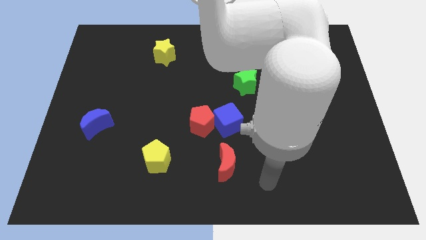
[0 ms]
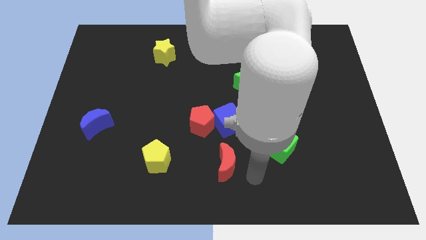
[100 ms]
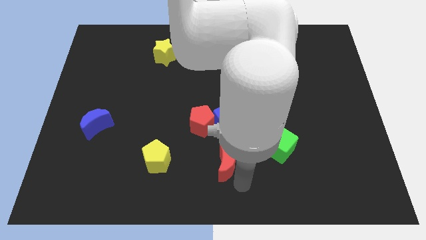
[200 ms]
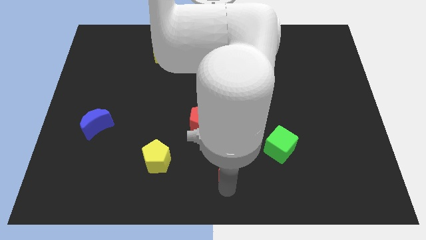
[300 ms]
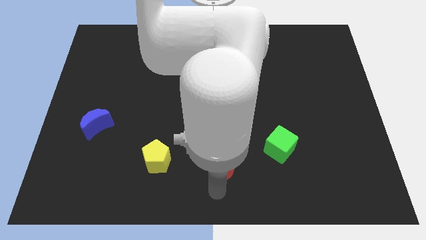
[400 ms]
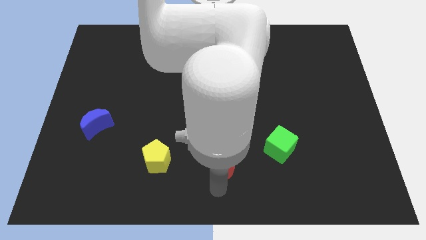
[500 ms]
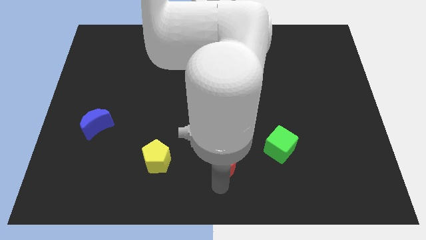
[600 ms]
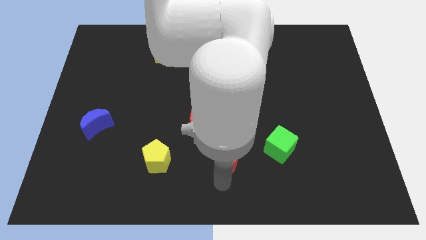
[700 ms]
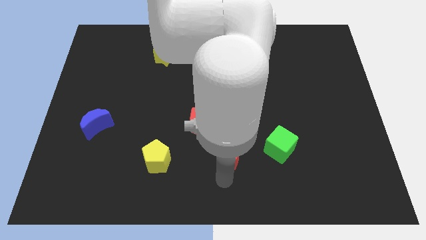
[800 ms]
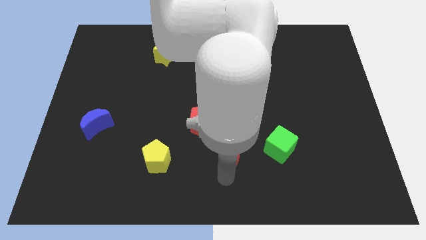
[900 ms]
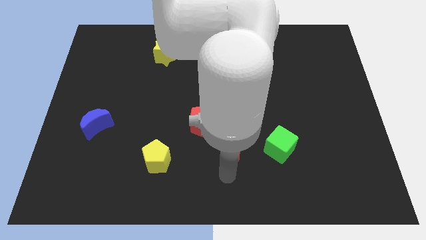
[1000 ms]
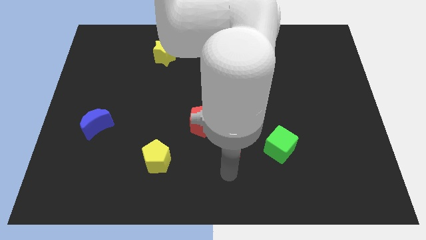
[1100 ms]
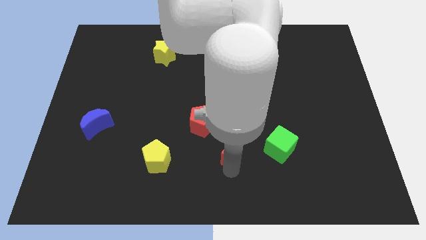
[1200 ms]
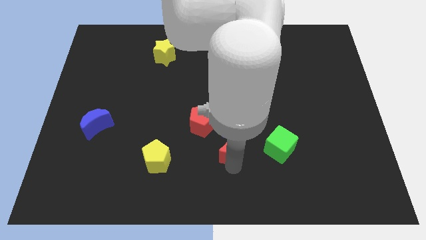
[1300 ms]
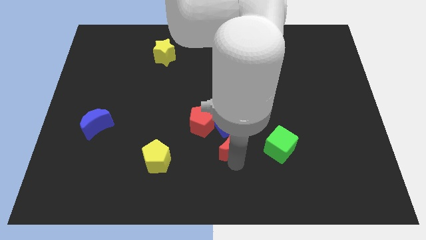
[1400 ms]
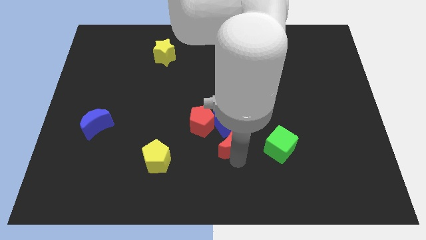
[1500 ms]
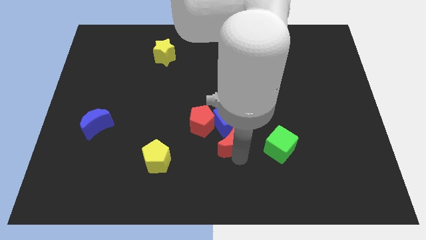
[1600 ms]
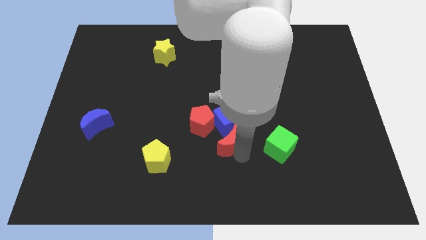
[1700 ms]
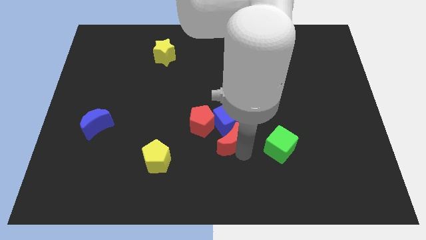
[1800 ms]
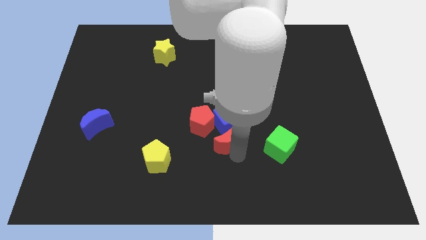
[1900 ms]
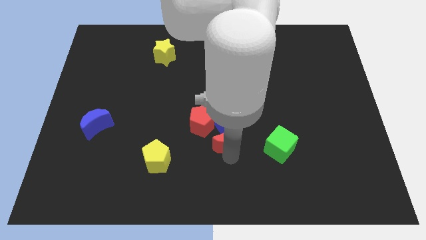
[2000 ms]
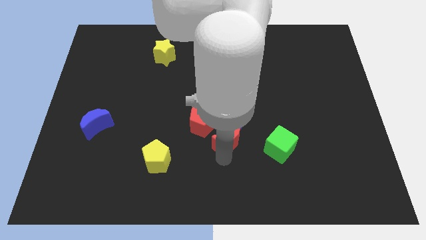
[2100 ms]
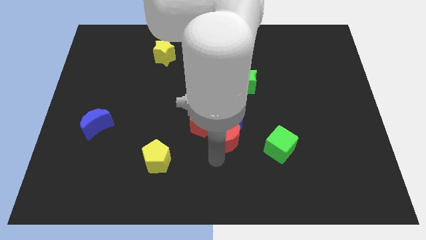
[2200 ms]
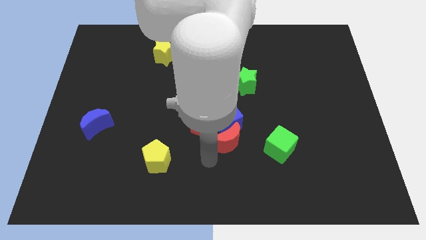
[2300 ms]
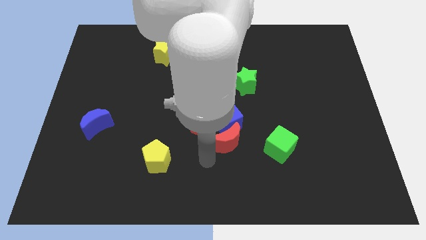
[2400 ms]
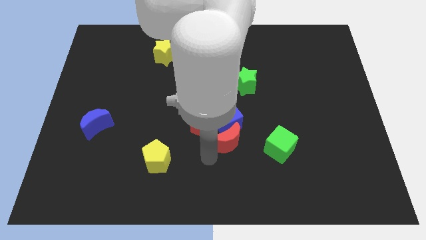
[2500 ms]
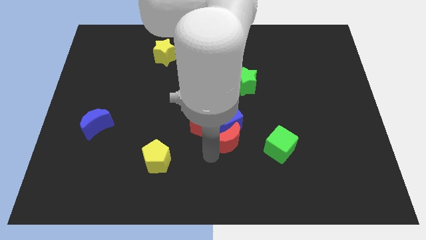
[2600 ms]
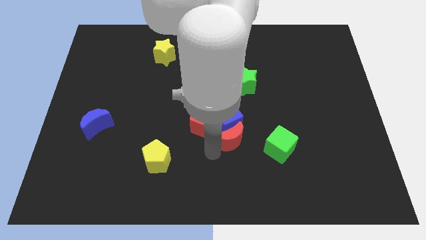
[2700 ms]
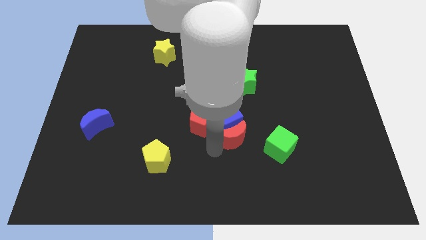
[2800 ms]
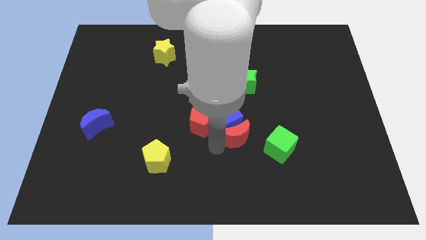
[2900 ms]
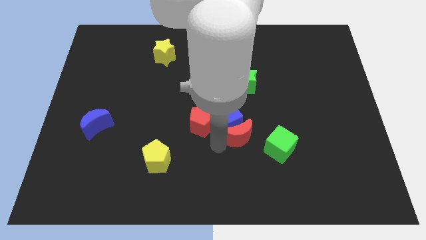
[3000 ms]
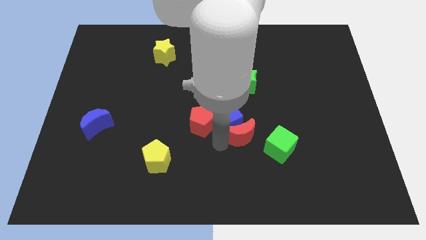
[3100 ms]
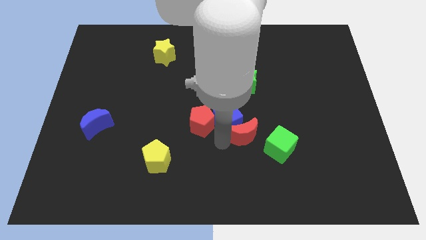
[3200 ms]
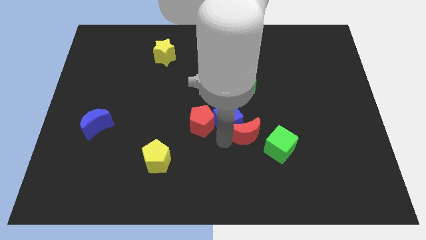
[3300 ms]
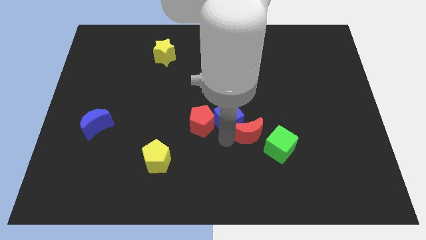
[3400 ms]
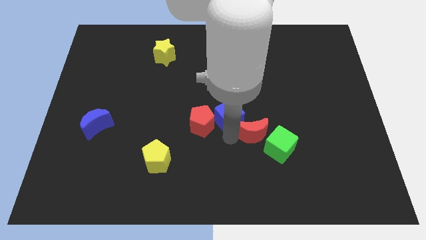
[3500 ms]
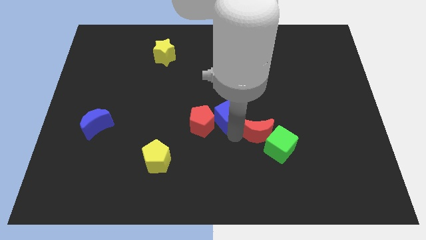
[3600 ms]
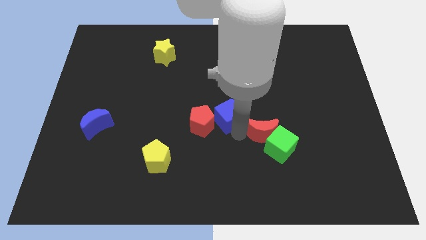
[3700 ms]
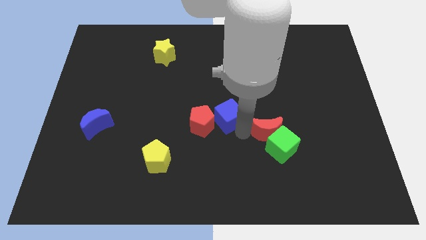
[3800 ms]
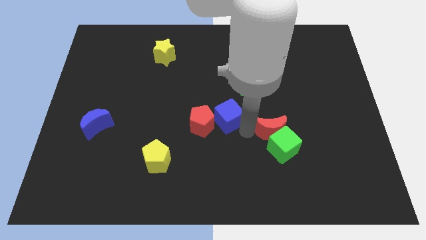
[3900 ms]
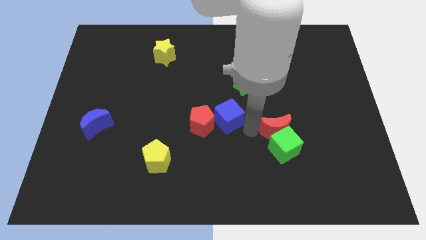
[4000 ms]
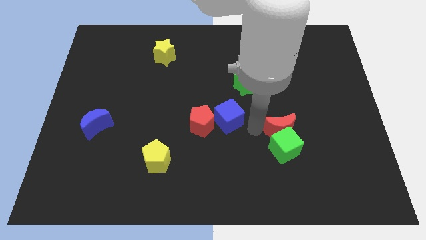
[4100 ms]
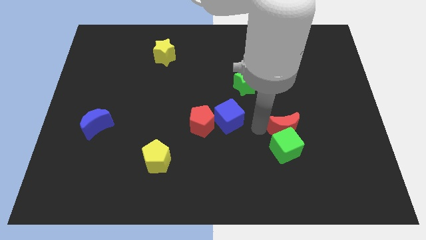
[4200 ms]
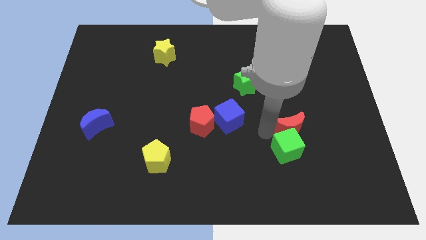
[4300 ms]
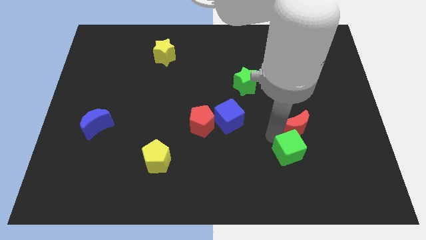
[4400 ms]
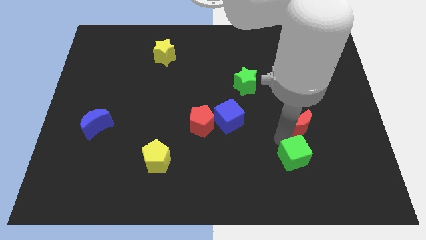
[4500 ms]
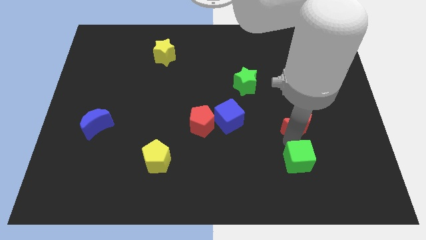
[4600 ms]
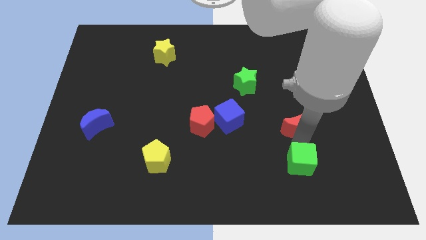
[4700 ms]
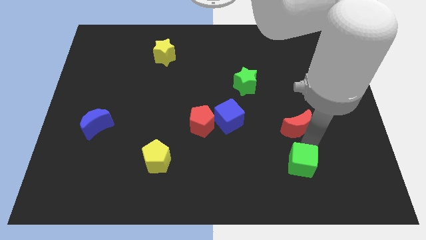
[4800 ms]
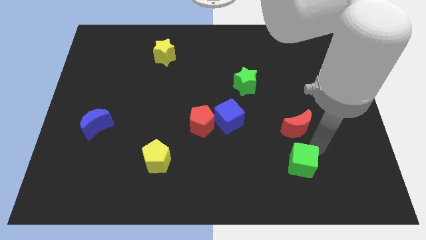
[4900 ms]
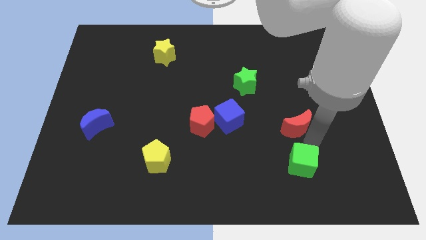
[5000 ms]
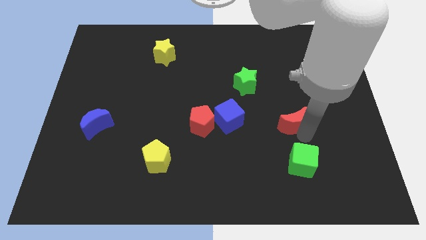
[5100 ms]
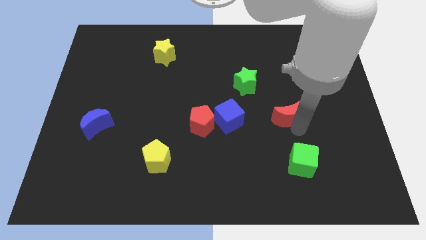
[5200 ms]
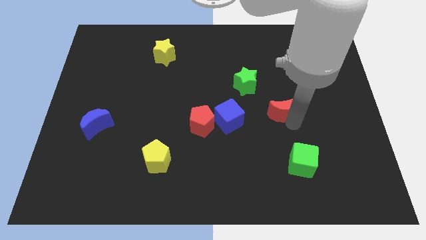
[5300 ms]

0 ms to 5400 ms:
push the red moon to the bottom right side of the green star

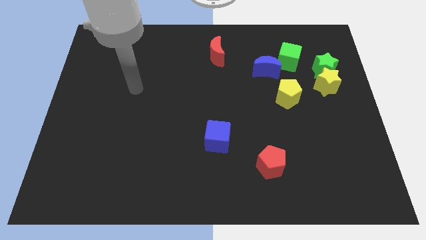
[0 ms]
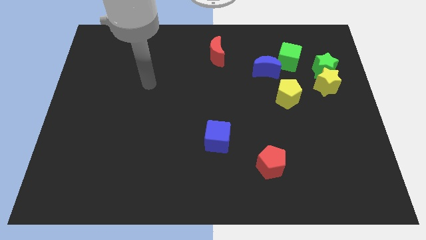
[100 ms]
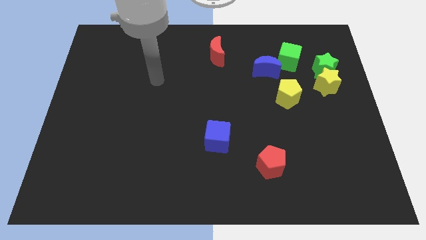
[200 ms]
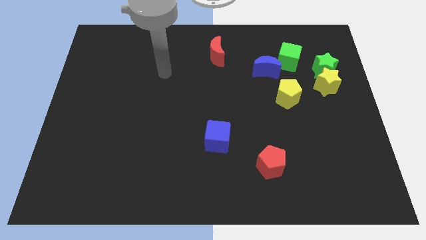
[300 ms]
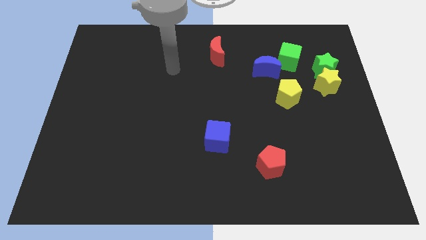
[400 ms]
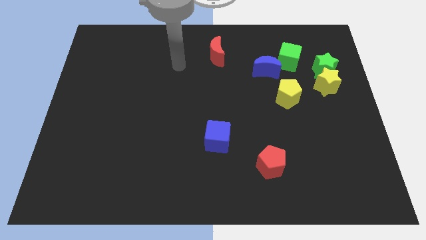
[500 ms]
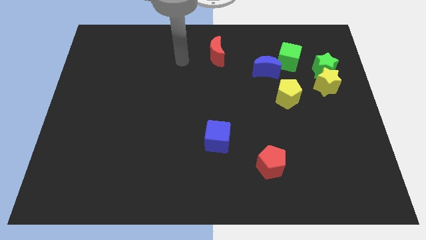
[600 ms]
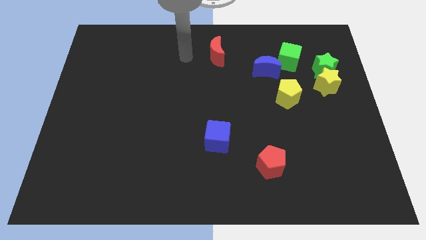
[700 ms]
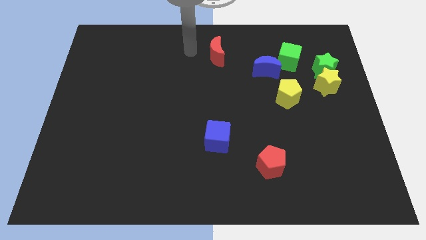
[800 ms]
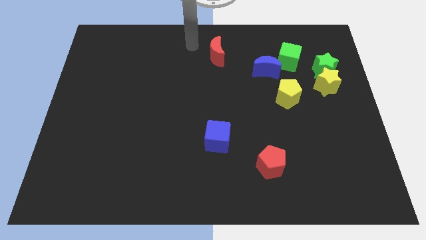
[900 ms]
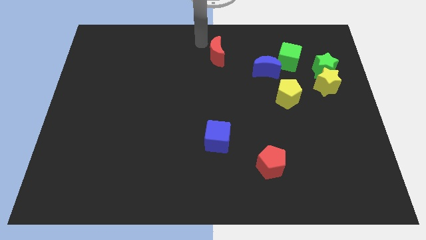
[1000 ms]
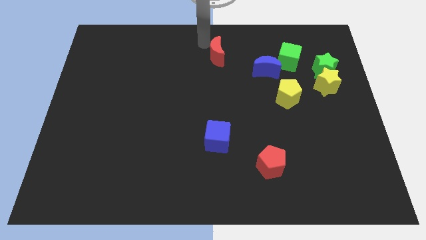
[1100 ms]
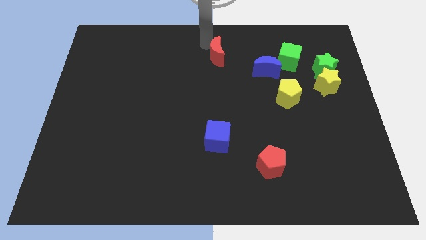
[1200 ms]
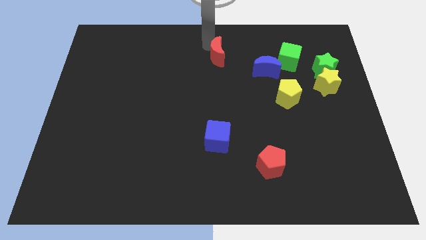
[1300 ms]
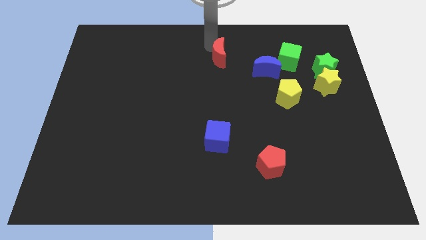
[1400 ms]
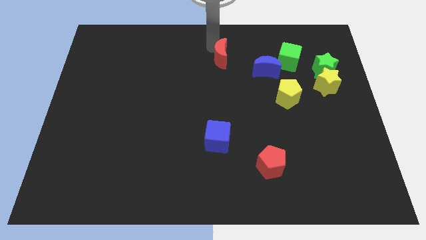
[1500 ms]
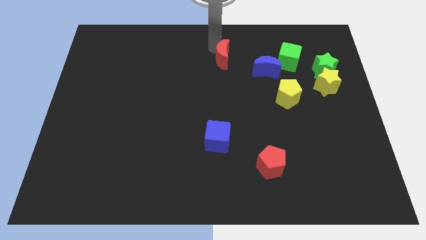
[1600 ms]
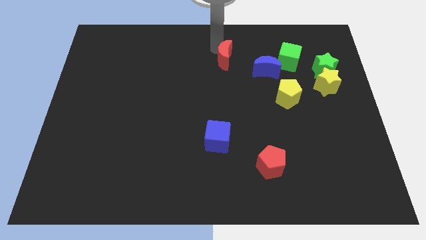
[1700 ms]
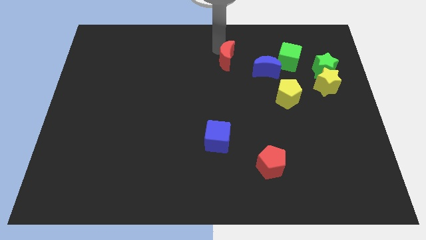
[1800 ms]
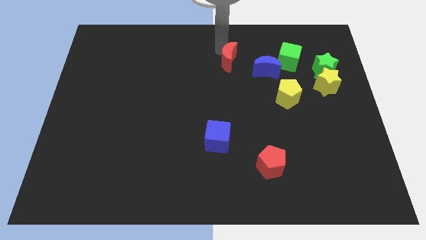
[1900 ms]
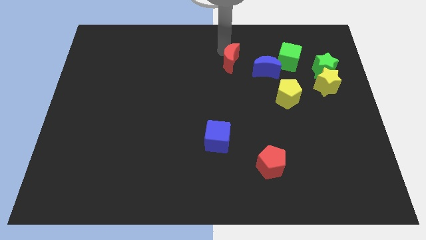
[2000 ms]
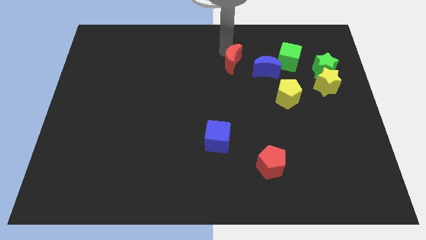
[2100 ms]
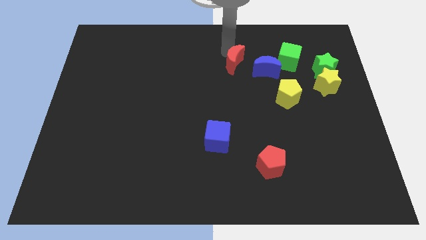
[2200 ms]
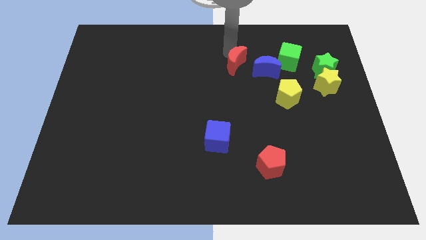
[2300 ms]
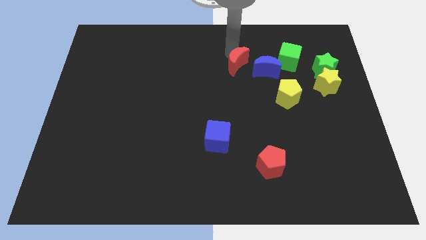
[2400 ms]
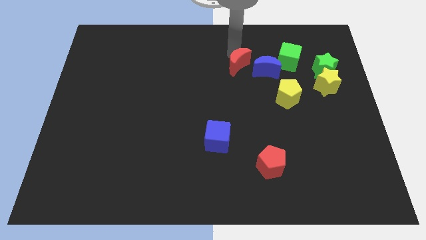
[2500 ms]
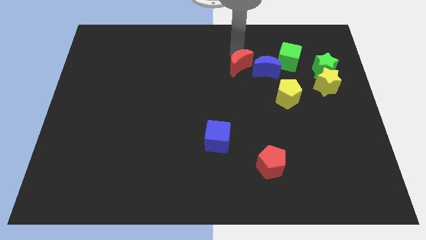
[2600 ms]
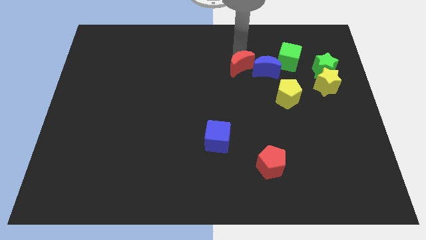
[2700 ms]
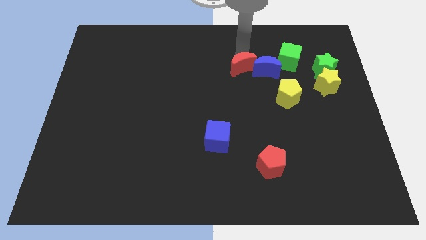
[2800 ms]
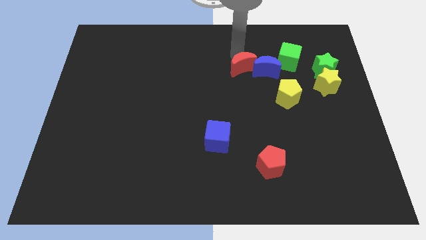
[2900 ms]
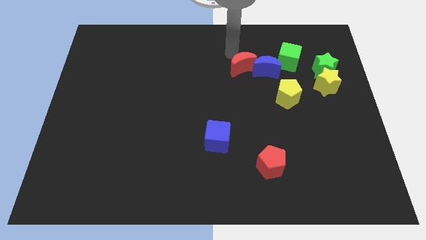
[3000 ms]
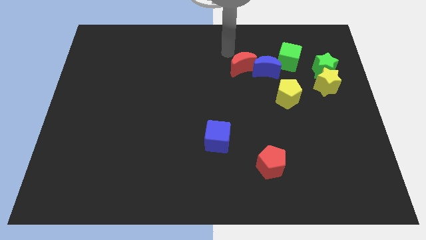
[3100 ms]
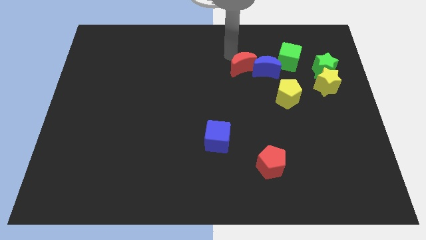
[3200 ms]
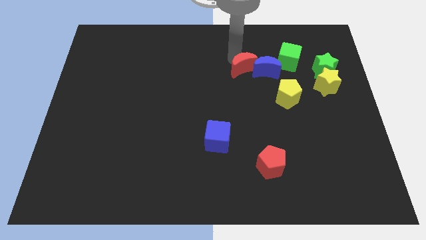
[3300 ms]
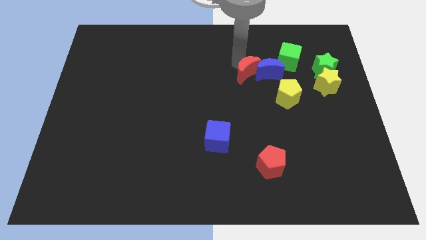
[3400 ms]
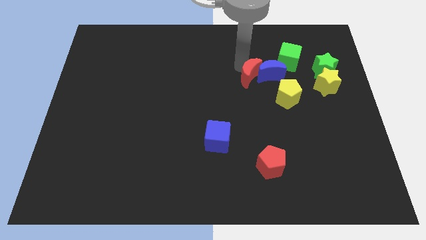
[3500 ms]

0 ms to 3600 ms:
move the red moon diagonally down and to the left of the green cube
